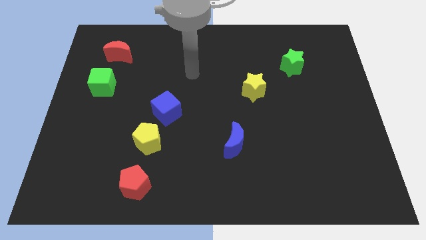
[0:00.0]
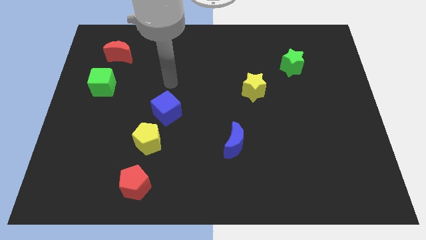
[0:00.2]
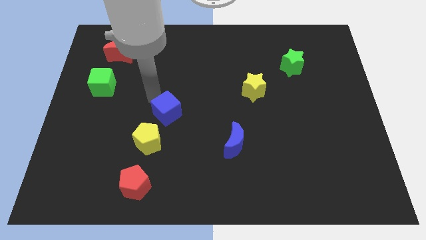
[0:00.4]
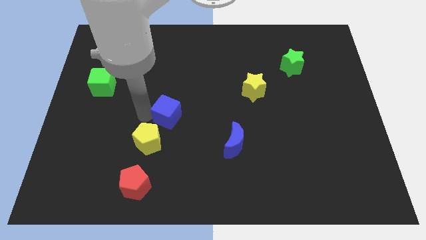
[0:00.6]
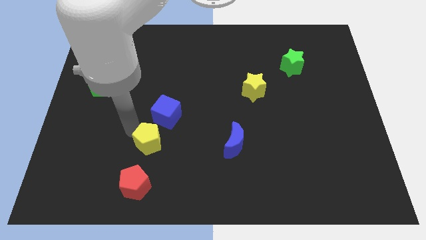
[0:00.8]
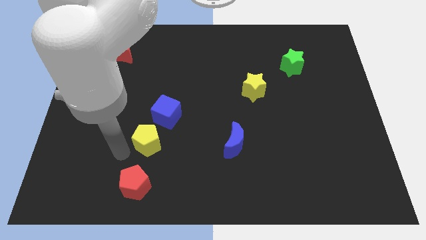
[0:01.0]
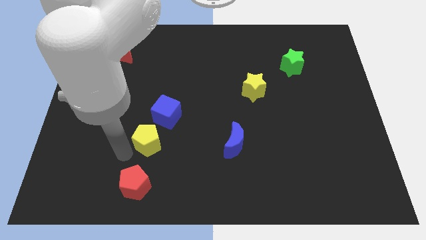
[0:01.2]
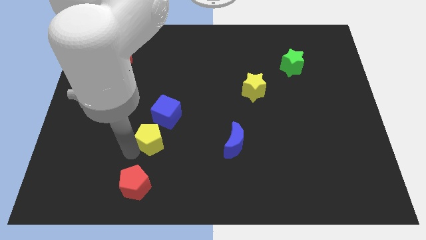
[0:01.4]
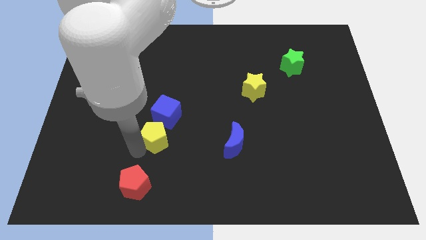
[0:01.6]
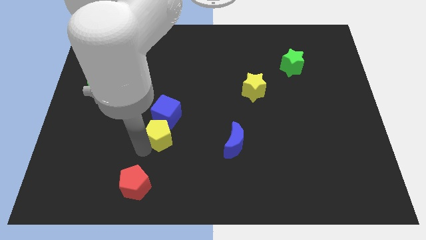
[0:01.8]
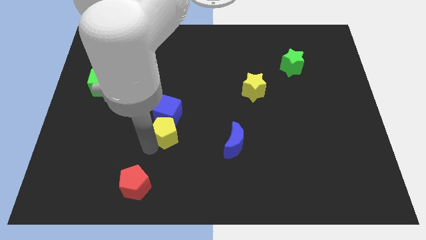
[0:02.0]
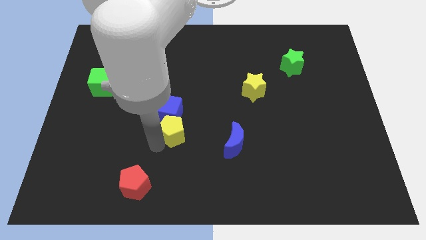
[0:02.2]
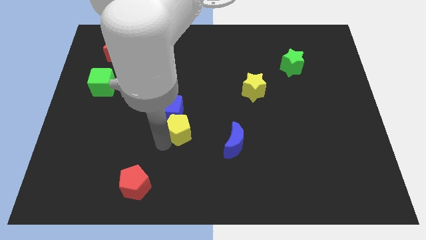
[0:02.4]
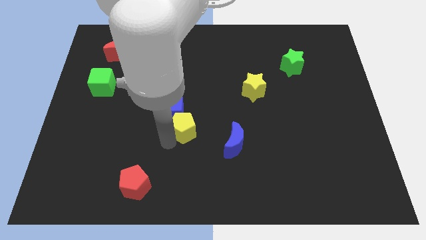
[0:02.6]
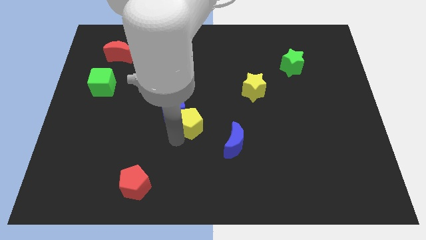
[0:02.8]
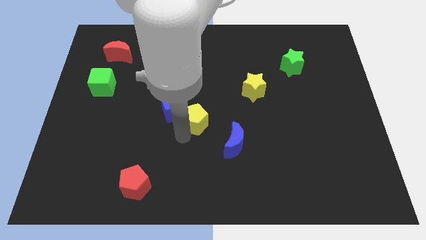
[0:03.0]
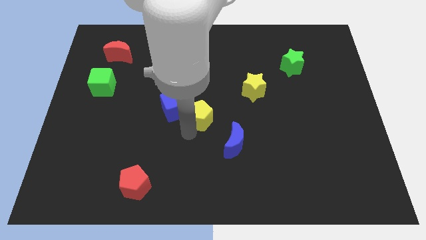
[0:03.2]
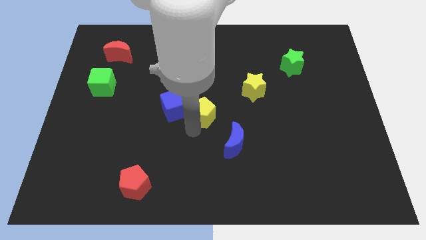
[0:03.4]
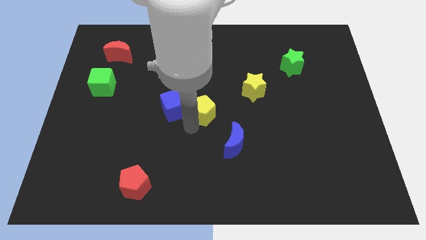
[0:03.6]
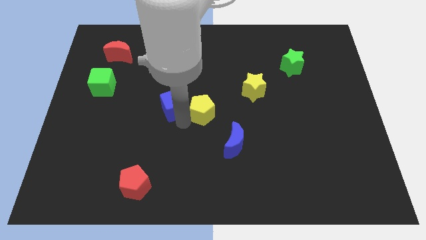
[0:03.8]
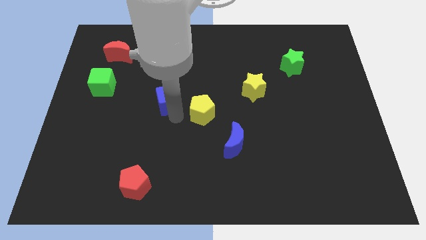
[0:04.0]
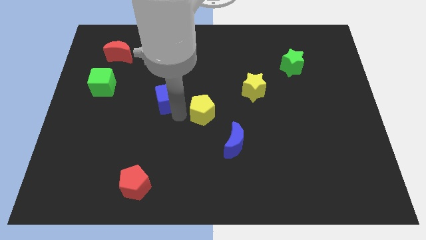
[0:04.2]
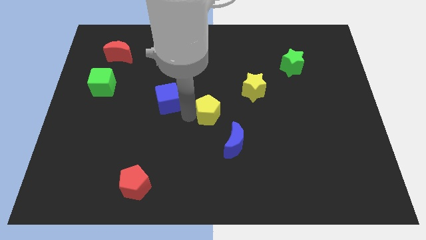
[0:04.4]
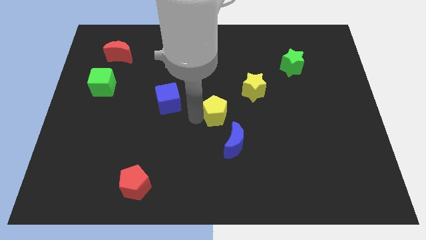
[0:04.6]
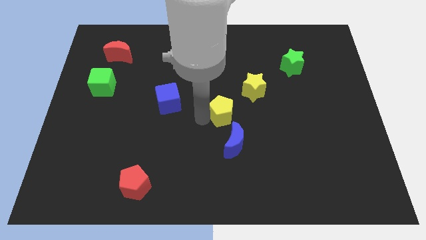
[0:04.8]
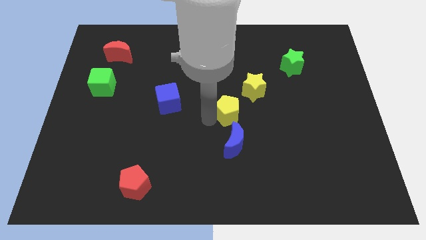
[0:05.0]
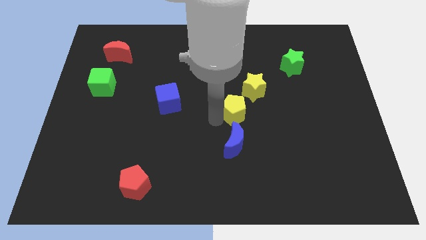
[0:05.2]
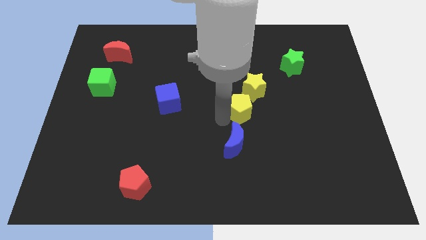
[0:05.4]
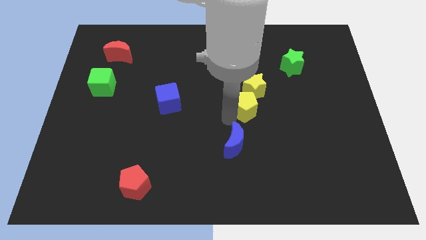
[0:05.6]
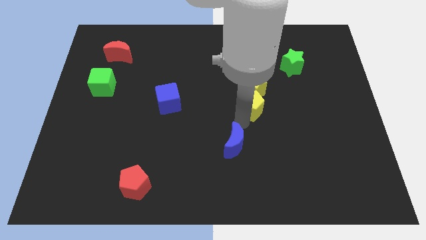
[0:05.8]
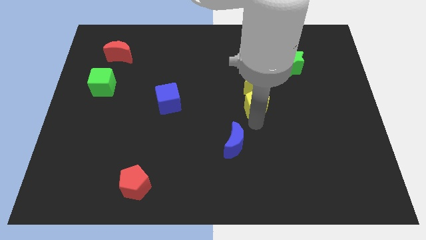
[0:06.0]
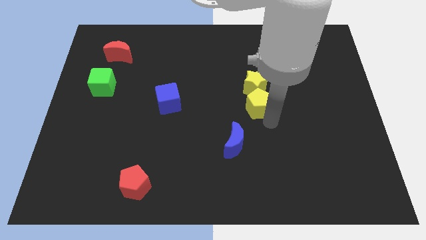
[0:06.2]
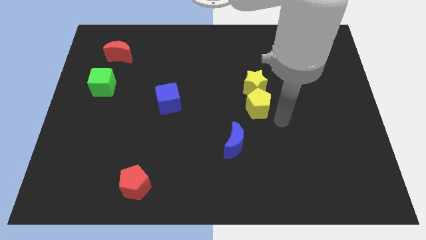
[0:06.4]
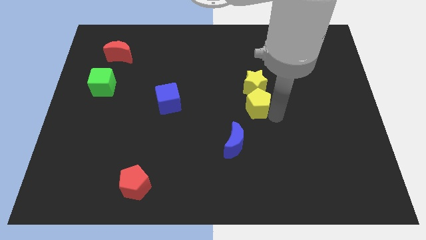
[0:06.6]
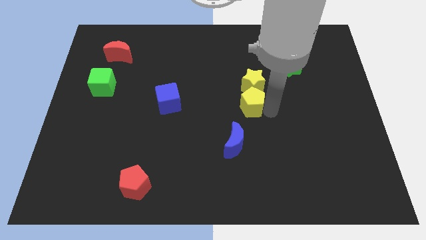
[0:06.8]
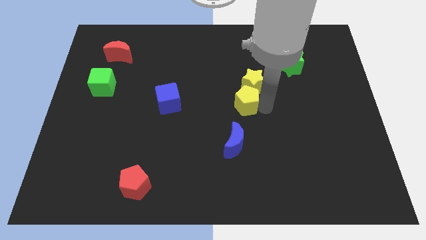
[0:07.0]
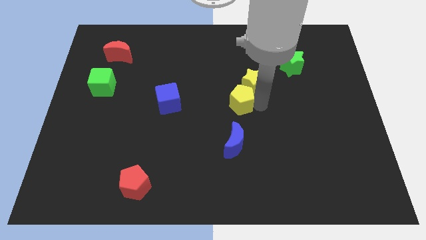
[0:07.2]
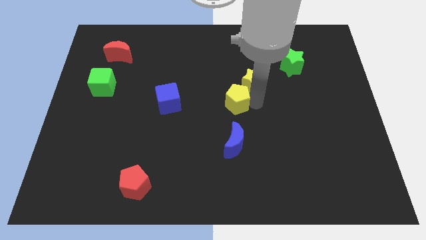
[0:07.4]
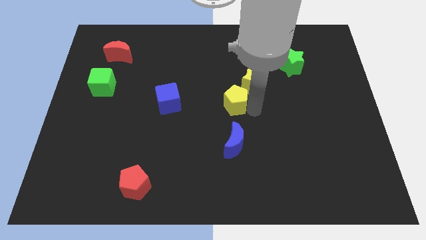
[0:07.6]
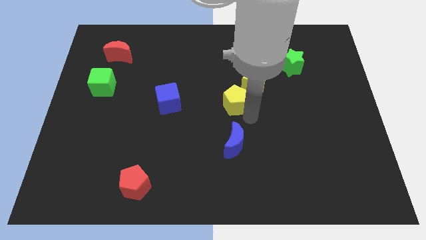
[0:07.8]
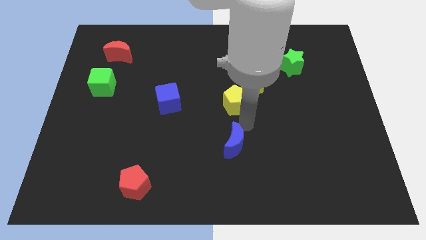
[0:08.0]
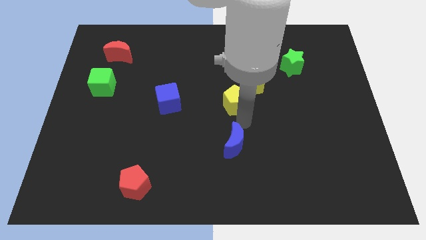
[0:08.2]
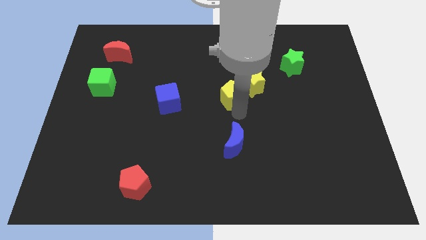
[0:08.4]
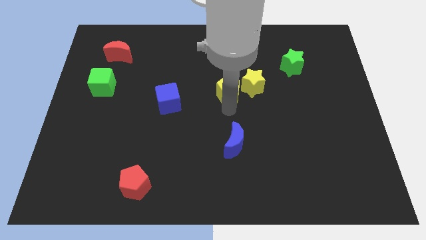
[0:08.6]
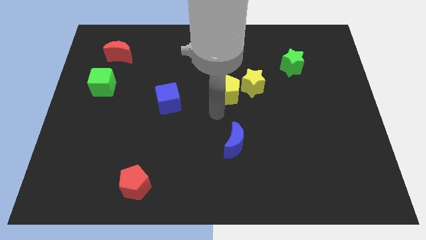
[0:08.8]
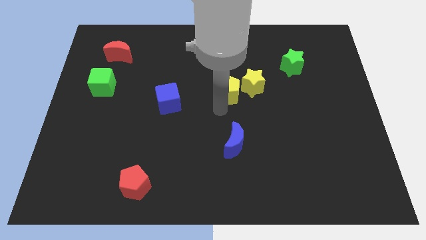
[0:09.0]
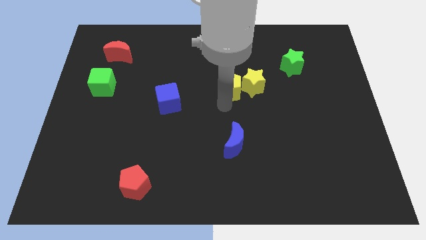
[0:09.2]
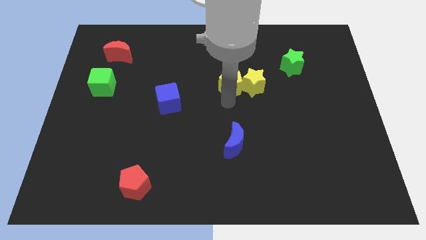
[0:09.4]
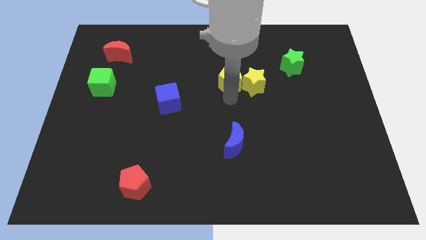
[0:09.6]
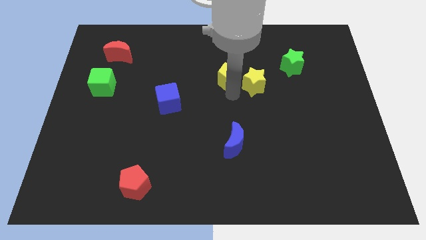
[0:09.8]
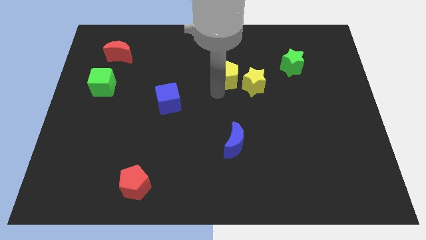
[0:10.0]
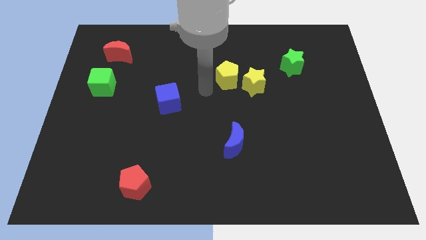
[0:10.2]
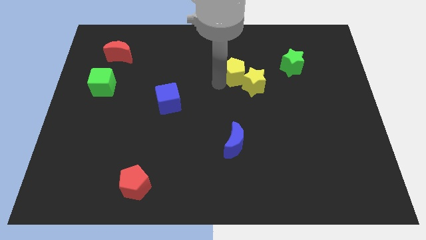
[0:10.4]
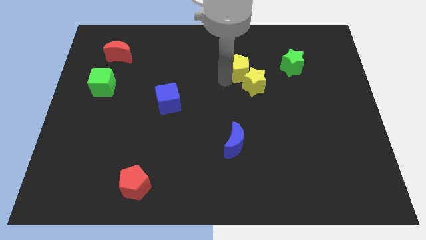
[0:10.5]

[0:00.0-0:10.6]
put the yellow pentagon just left of the green star

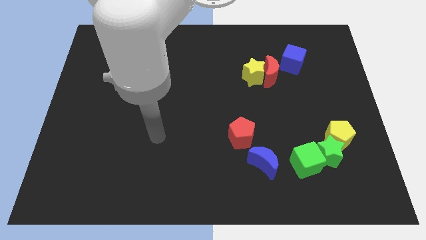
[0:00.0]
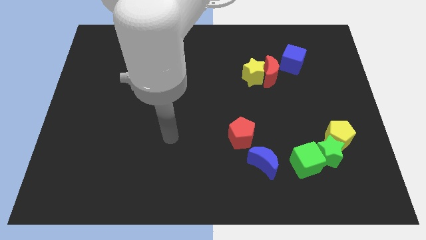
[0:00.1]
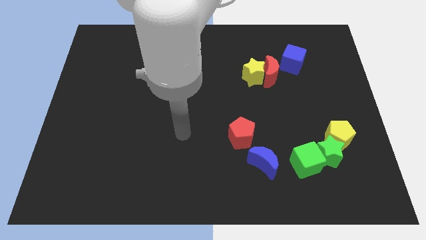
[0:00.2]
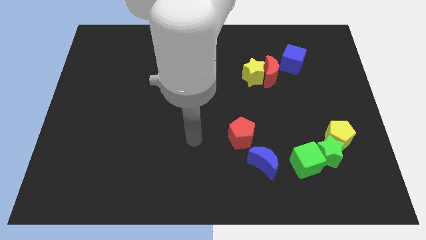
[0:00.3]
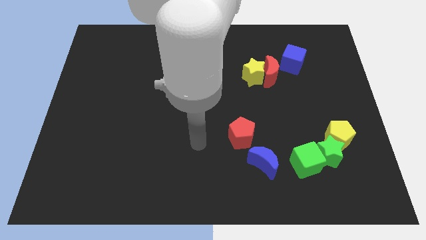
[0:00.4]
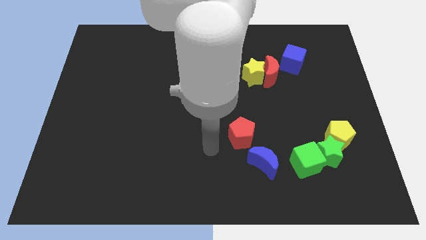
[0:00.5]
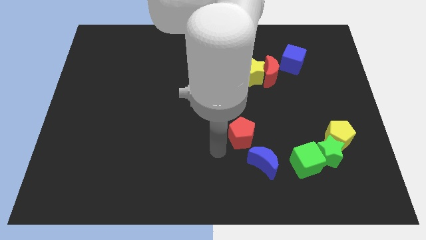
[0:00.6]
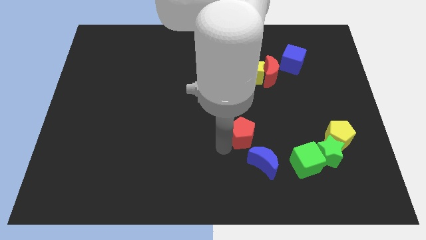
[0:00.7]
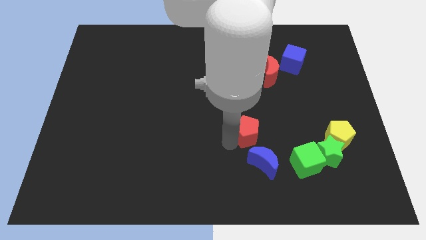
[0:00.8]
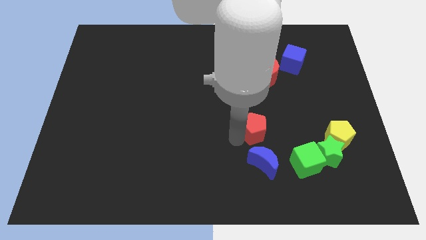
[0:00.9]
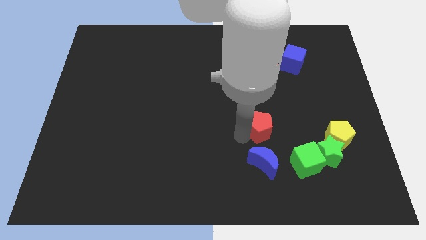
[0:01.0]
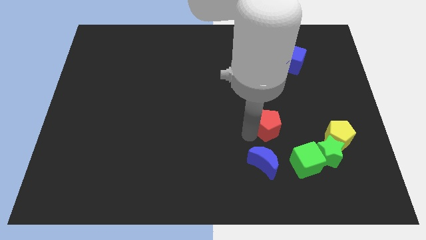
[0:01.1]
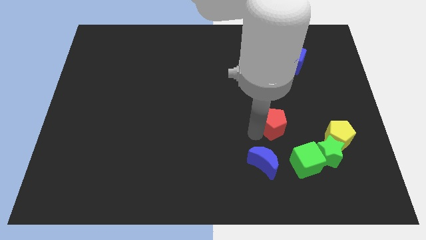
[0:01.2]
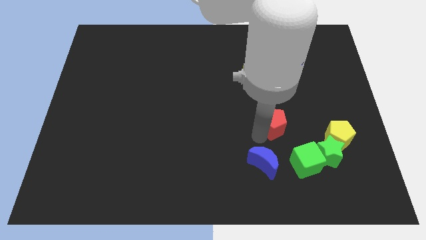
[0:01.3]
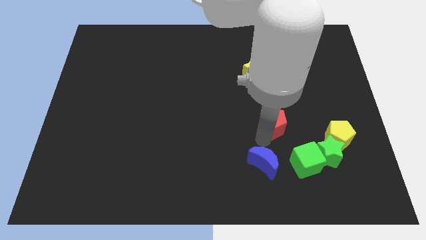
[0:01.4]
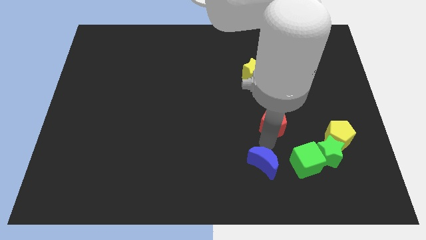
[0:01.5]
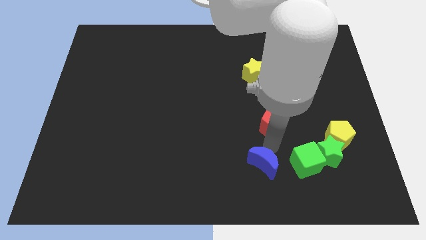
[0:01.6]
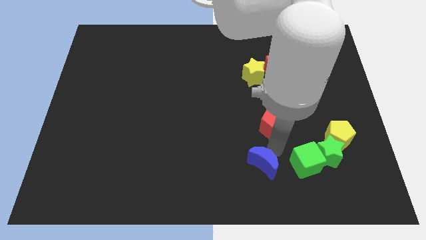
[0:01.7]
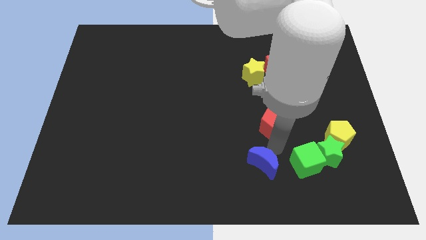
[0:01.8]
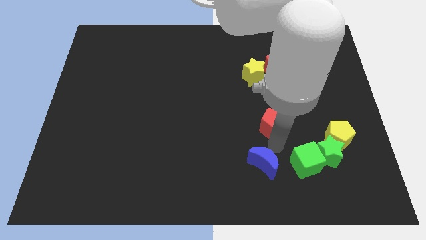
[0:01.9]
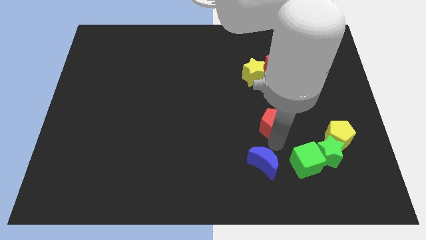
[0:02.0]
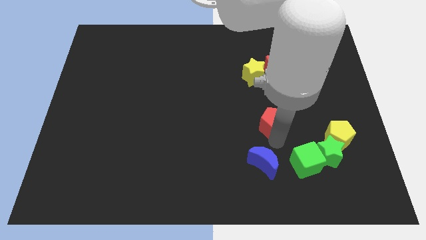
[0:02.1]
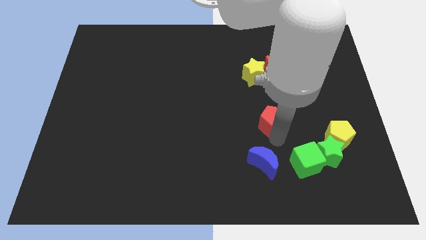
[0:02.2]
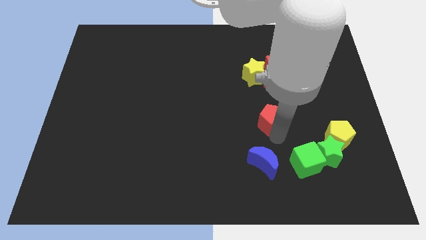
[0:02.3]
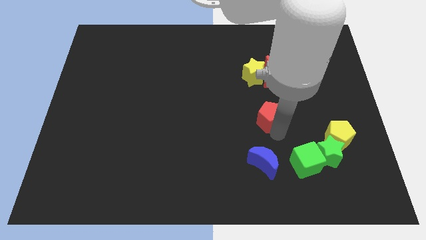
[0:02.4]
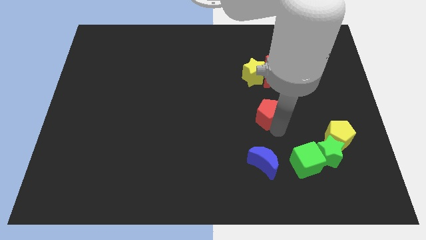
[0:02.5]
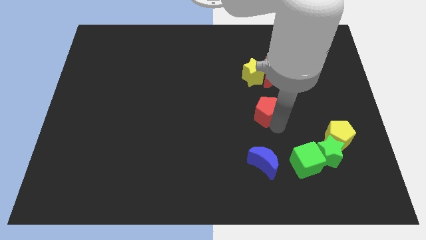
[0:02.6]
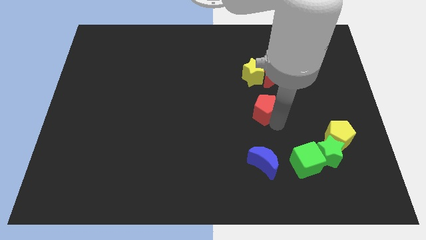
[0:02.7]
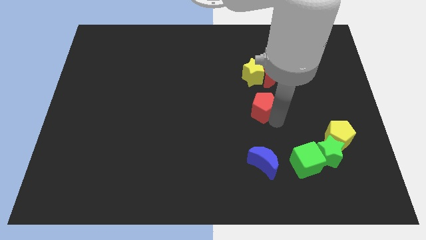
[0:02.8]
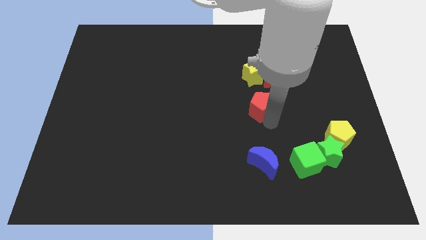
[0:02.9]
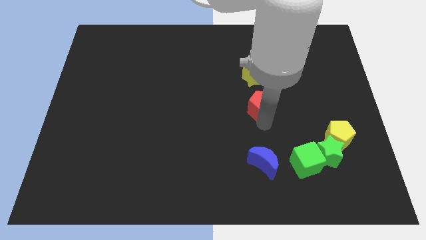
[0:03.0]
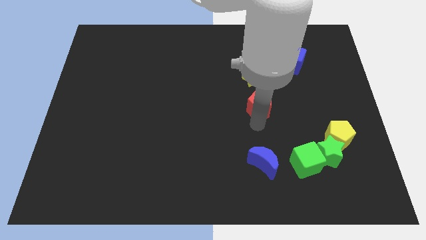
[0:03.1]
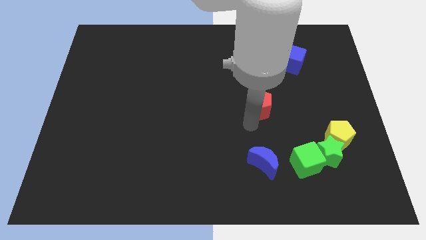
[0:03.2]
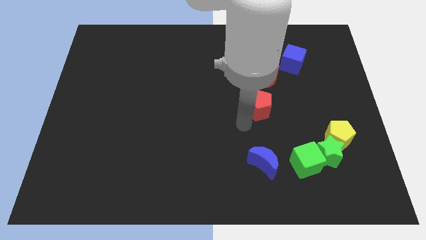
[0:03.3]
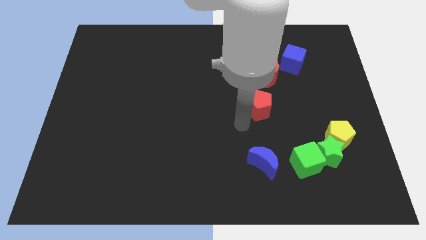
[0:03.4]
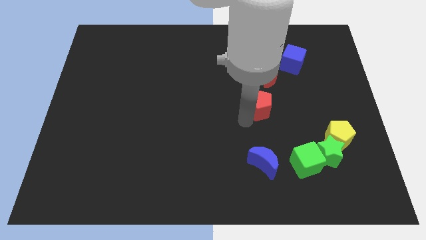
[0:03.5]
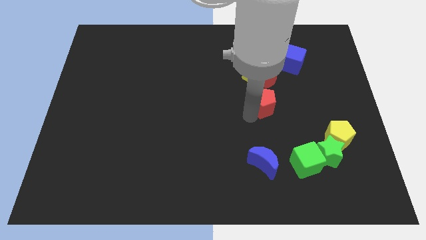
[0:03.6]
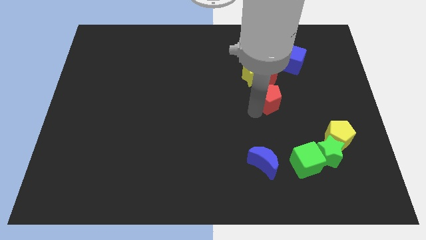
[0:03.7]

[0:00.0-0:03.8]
put the red pentagon diagonally down and to the right of the yellow star
